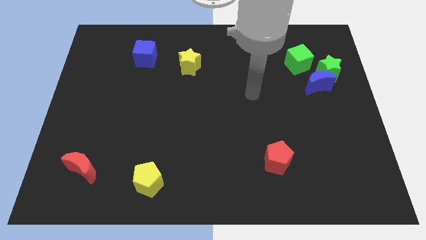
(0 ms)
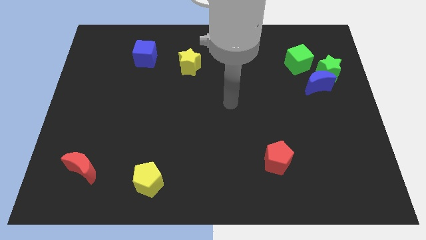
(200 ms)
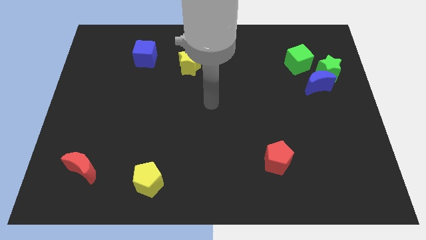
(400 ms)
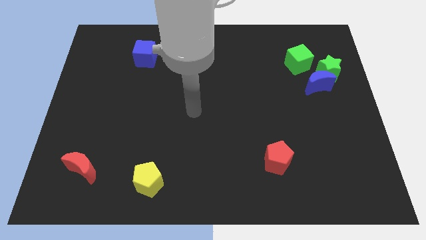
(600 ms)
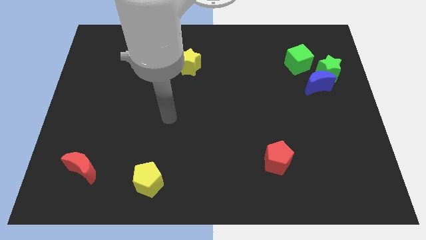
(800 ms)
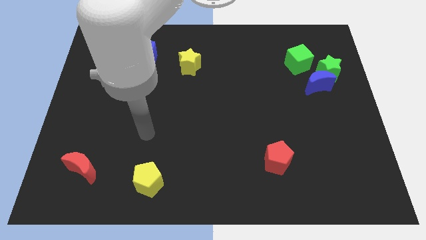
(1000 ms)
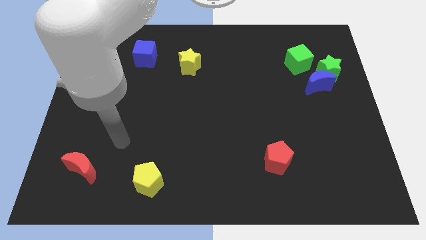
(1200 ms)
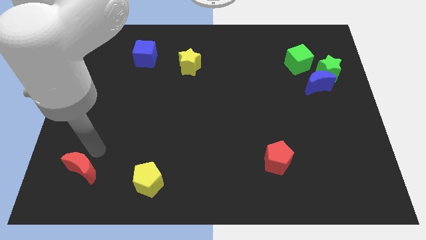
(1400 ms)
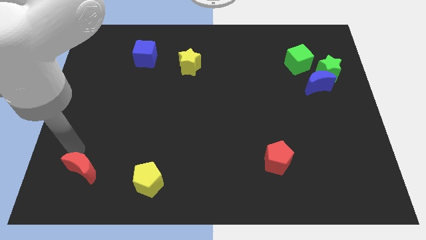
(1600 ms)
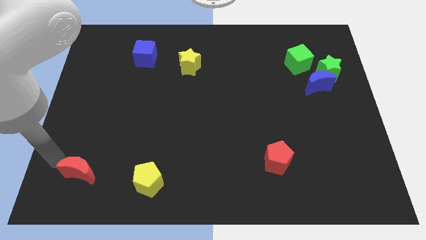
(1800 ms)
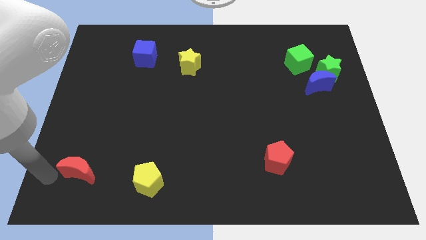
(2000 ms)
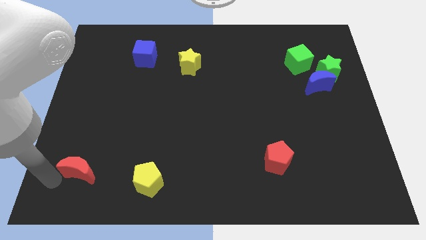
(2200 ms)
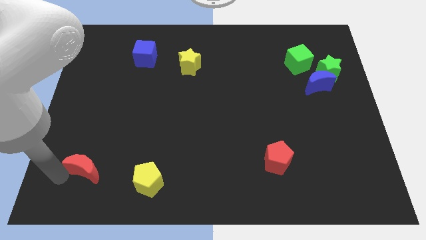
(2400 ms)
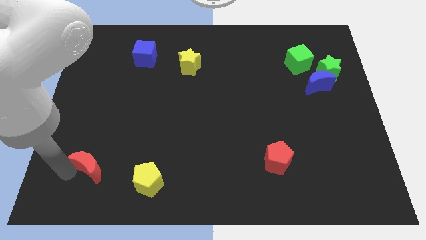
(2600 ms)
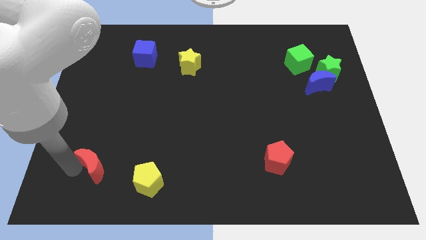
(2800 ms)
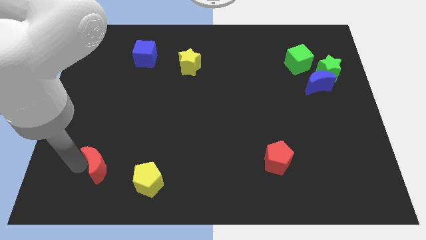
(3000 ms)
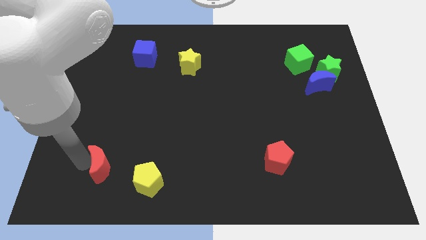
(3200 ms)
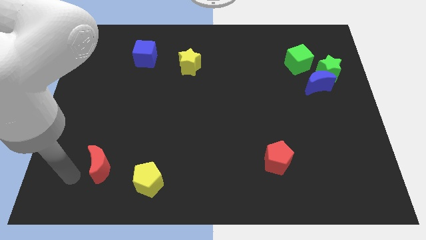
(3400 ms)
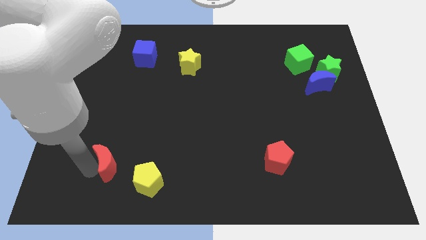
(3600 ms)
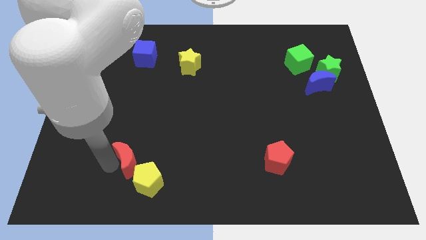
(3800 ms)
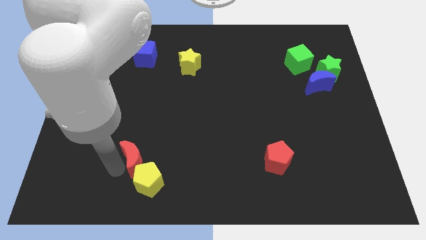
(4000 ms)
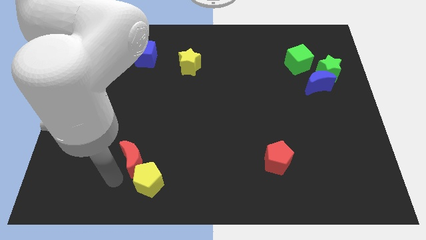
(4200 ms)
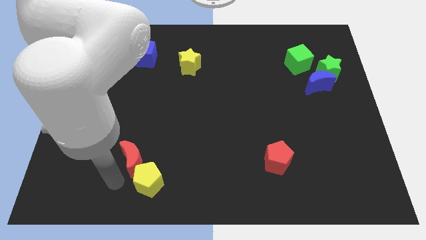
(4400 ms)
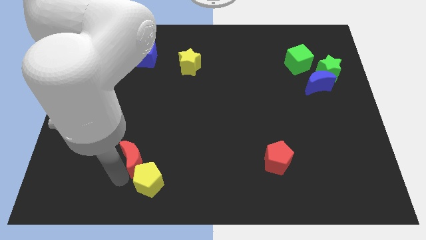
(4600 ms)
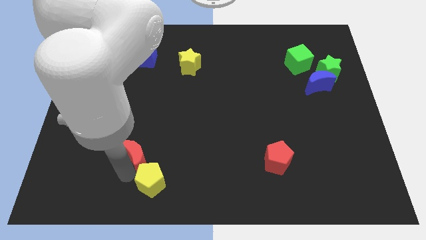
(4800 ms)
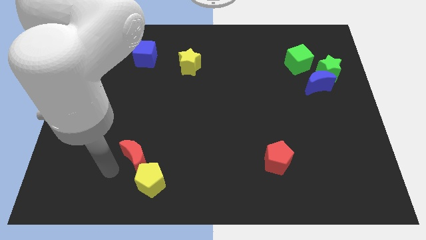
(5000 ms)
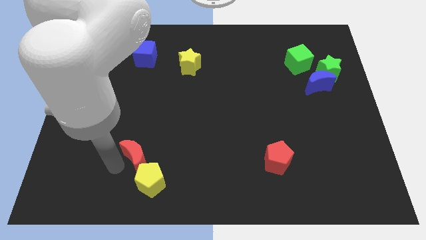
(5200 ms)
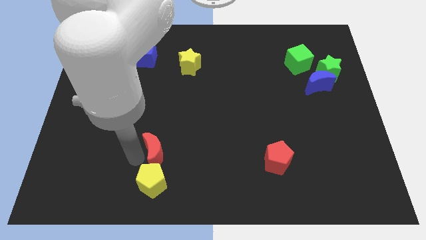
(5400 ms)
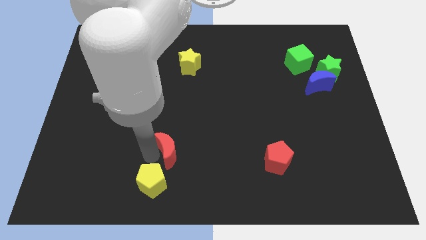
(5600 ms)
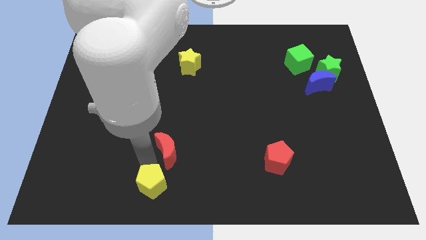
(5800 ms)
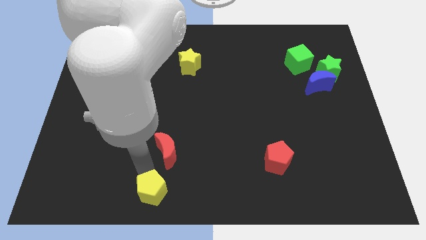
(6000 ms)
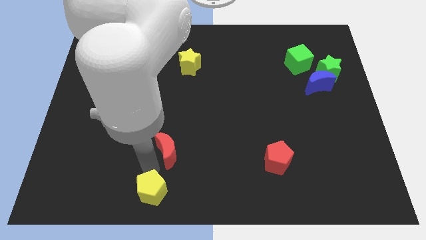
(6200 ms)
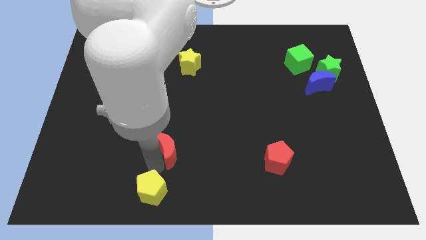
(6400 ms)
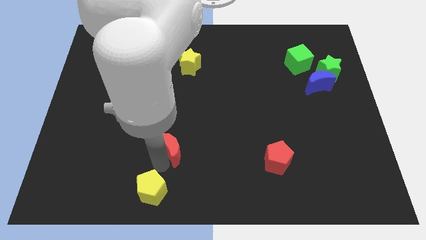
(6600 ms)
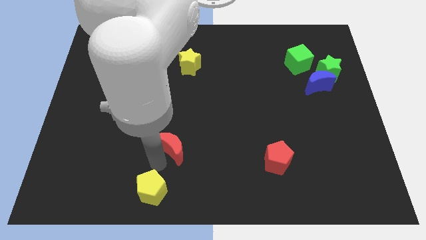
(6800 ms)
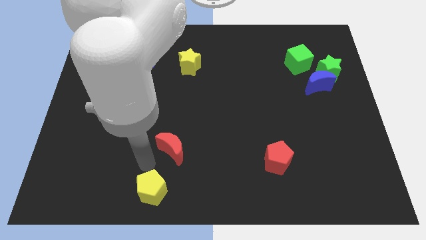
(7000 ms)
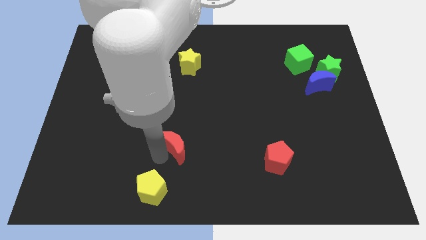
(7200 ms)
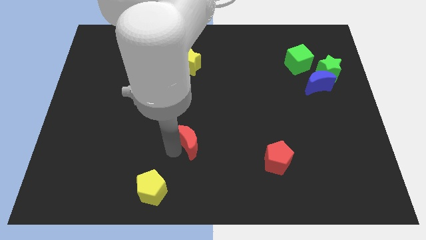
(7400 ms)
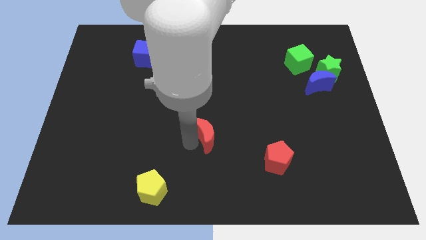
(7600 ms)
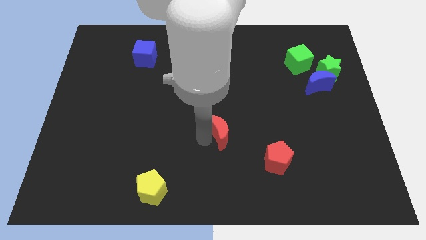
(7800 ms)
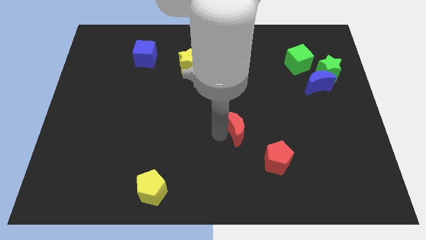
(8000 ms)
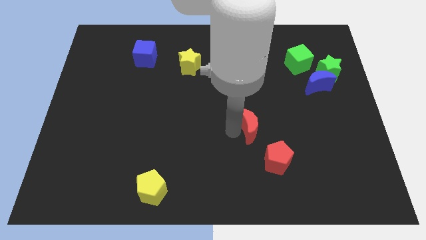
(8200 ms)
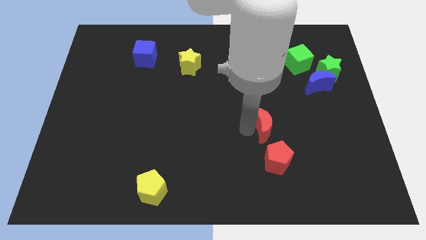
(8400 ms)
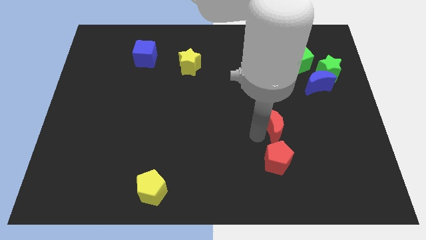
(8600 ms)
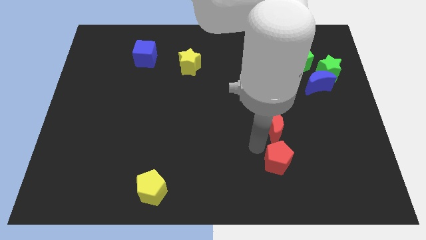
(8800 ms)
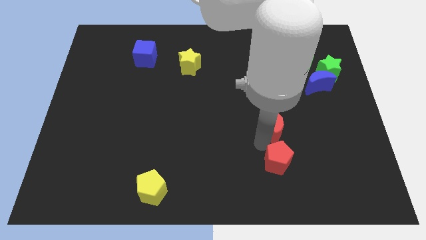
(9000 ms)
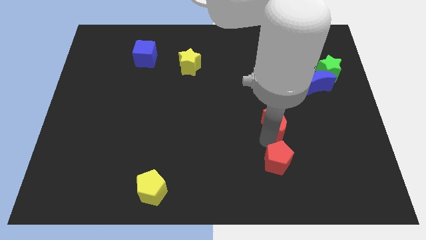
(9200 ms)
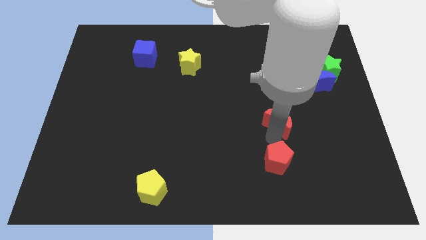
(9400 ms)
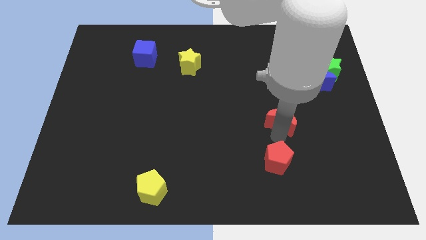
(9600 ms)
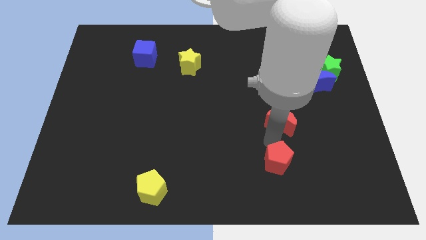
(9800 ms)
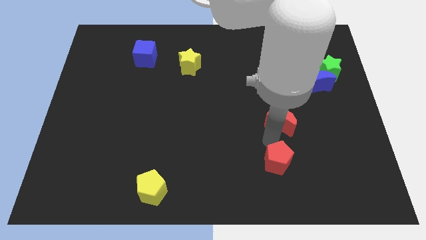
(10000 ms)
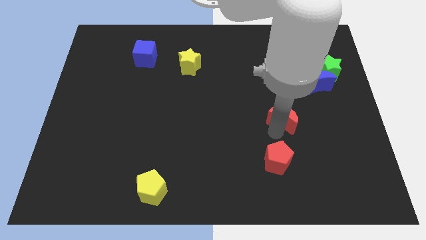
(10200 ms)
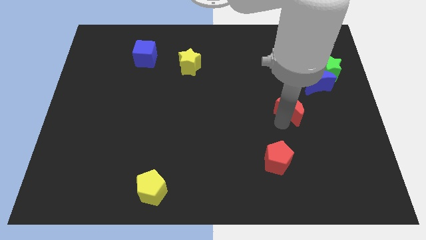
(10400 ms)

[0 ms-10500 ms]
put the red moon to the bottom left side of the blue moon

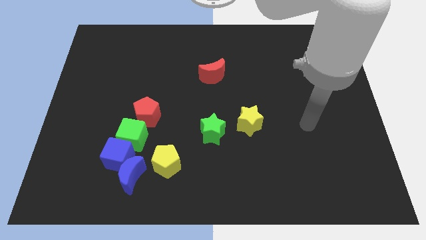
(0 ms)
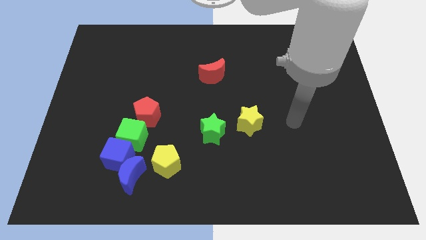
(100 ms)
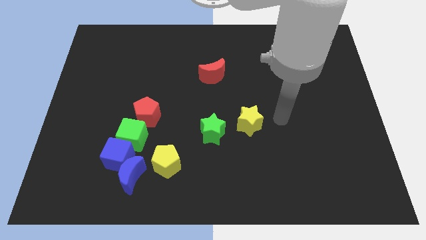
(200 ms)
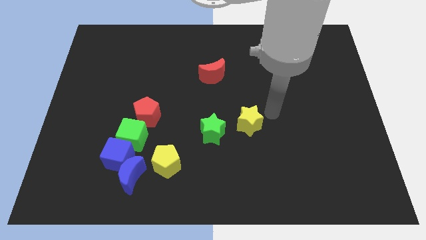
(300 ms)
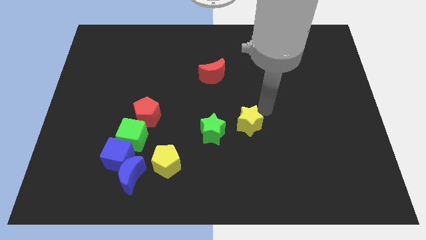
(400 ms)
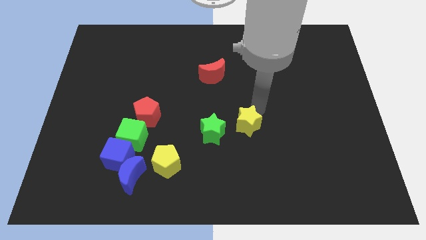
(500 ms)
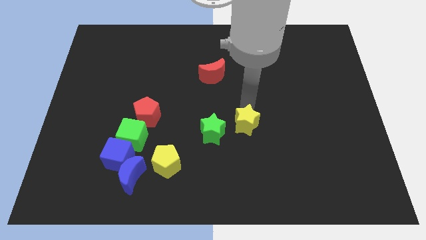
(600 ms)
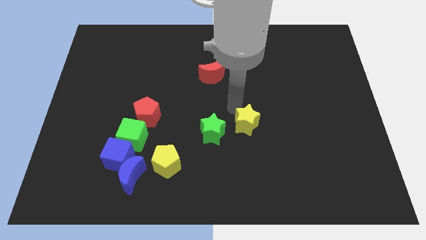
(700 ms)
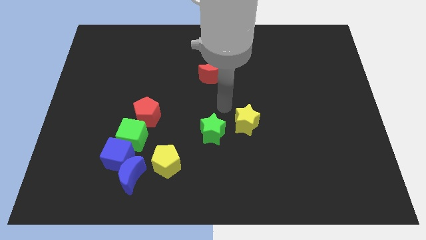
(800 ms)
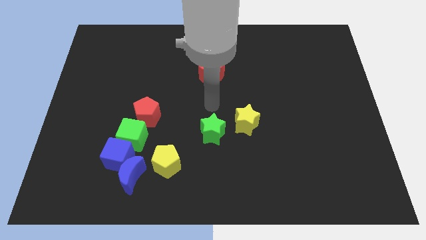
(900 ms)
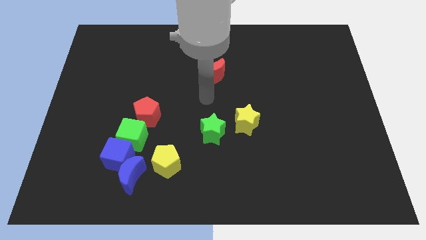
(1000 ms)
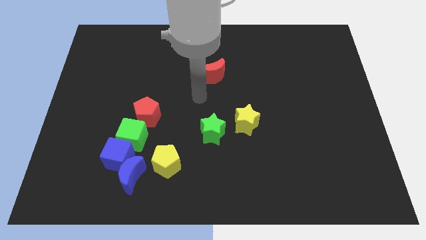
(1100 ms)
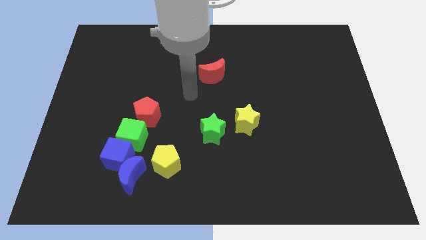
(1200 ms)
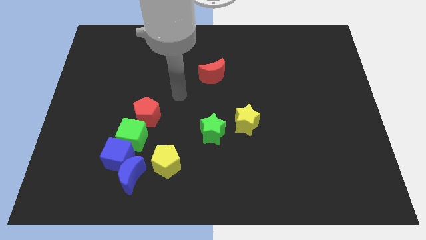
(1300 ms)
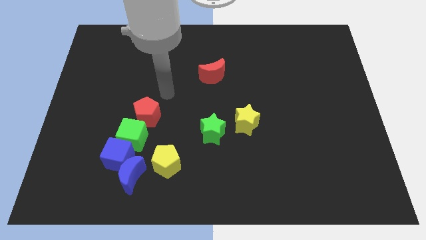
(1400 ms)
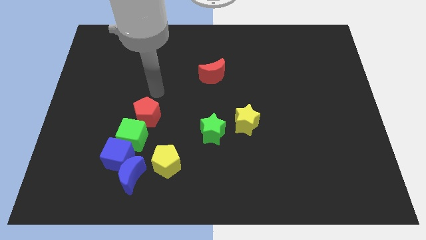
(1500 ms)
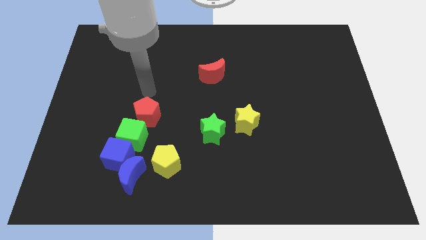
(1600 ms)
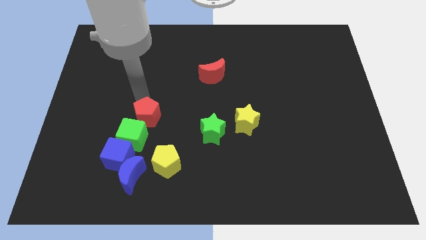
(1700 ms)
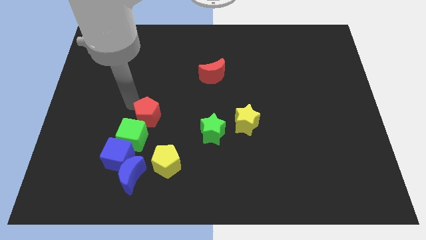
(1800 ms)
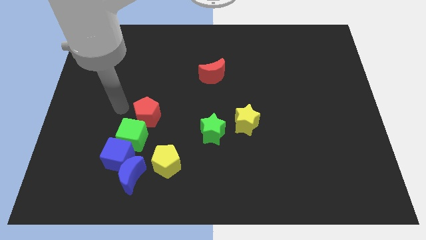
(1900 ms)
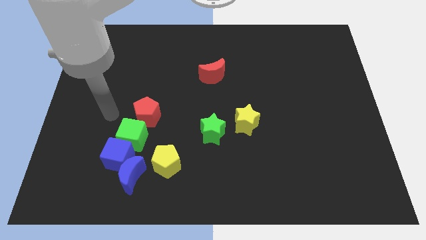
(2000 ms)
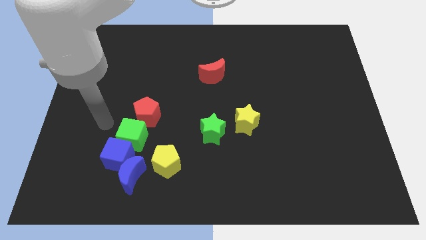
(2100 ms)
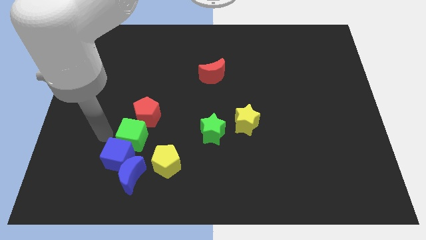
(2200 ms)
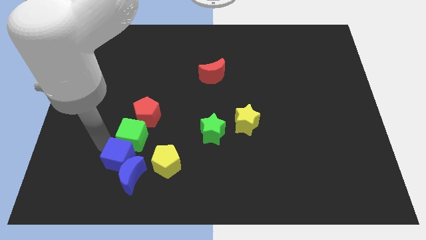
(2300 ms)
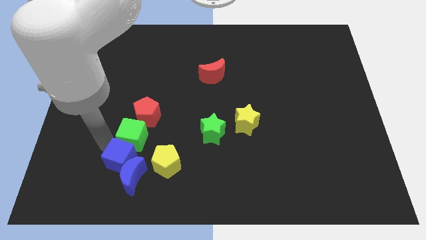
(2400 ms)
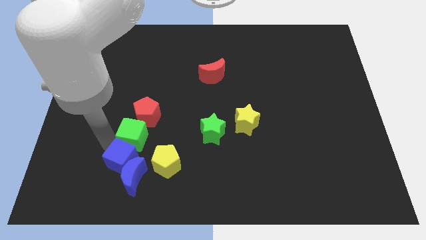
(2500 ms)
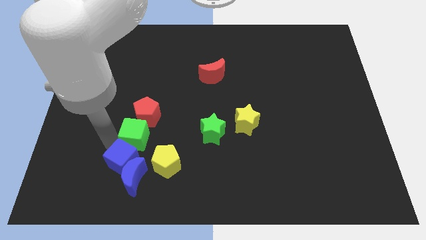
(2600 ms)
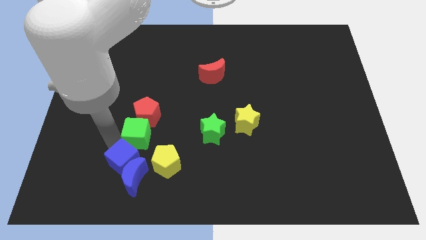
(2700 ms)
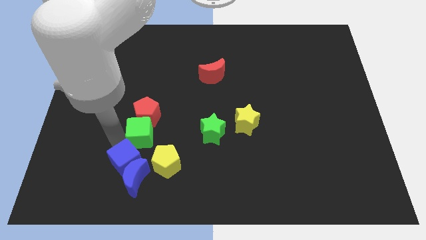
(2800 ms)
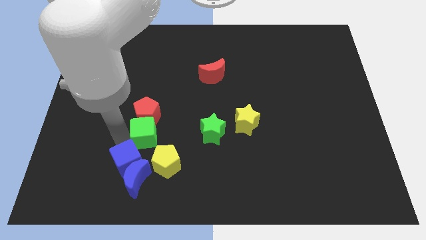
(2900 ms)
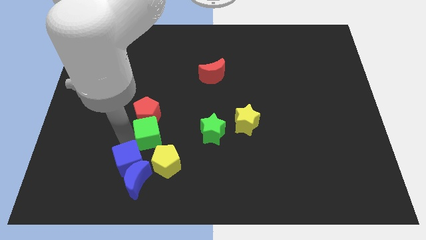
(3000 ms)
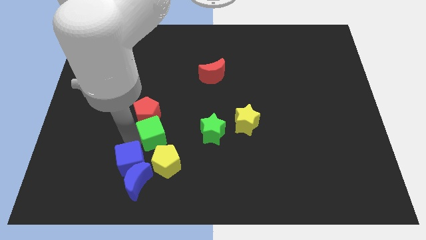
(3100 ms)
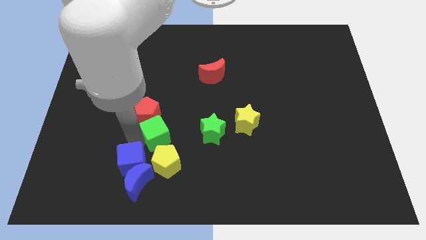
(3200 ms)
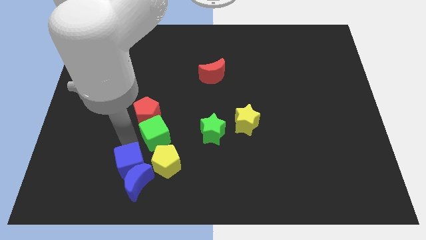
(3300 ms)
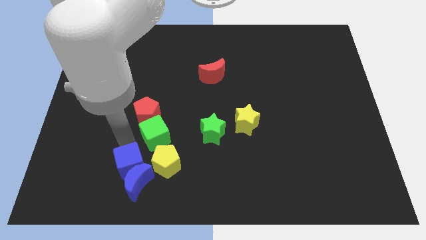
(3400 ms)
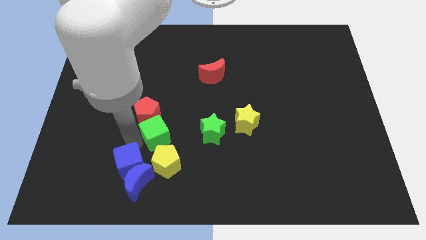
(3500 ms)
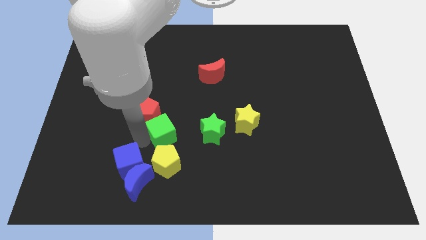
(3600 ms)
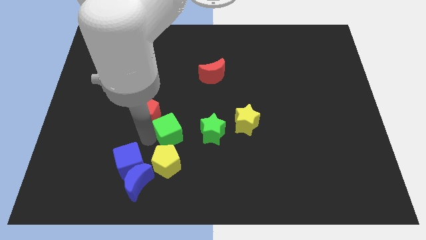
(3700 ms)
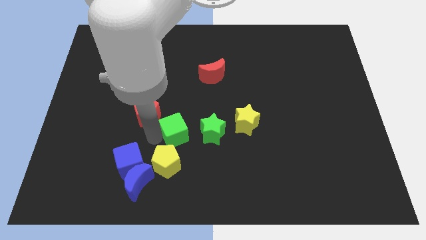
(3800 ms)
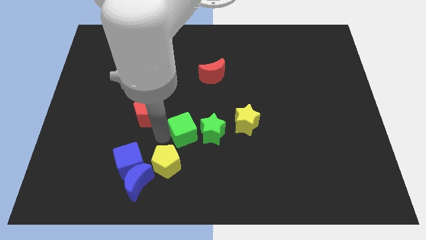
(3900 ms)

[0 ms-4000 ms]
put the green cube to the left of the yellow star
